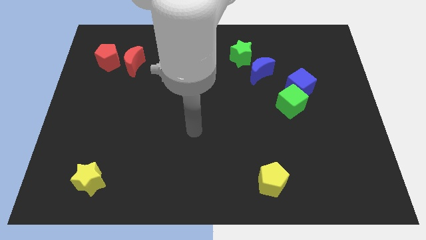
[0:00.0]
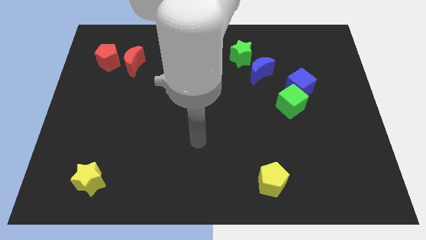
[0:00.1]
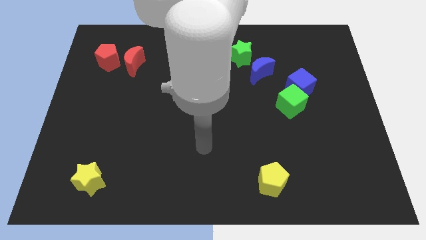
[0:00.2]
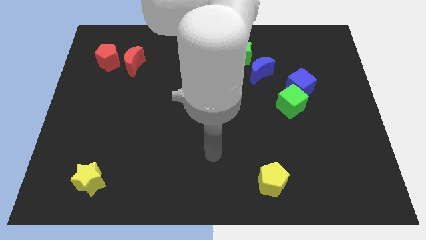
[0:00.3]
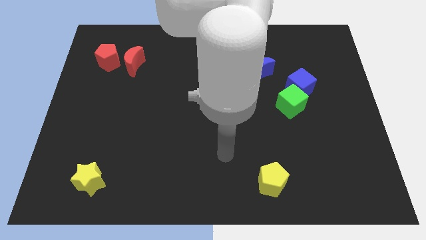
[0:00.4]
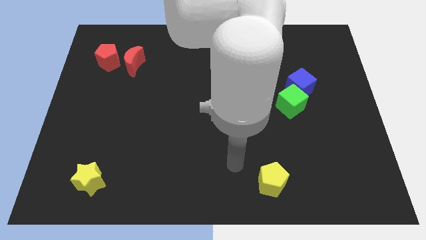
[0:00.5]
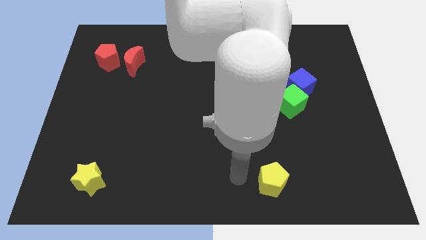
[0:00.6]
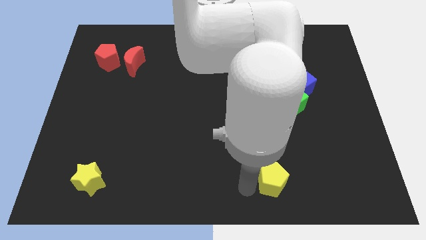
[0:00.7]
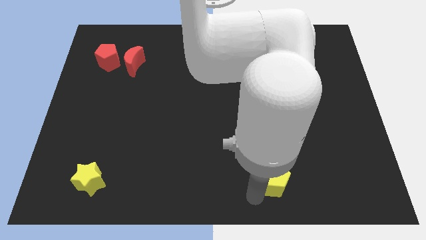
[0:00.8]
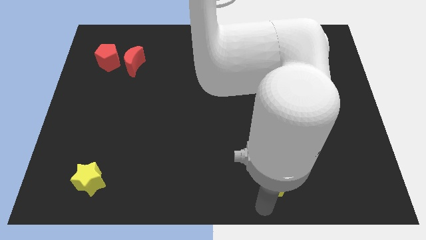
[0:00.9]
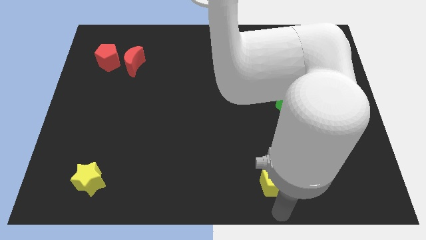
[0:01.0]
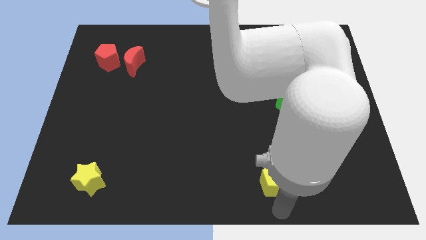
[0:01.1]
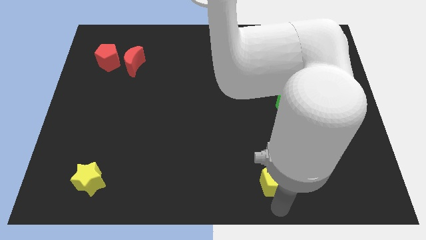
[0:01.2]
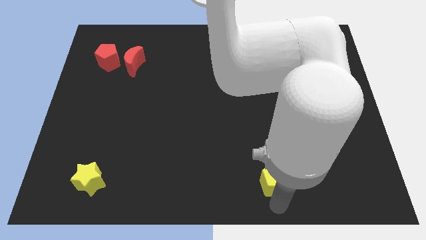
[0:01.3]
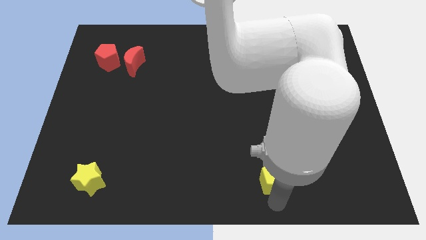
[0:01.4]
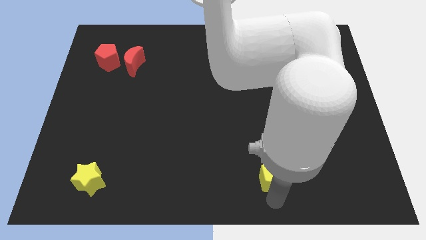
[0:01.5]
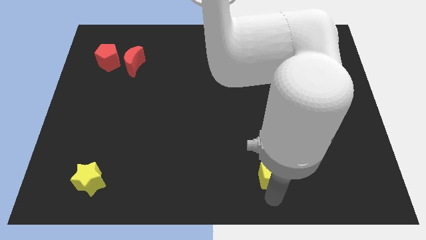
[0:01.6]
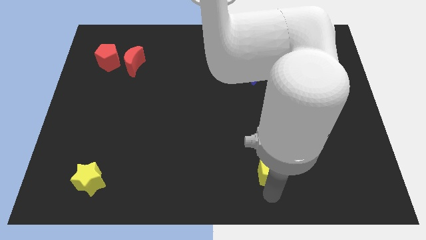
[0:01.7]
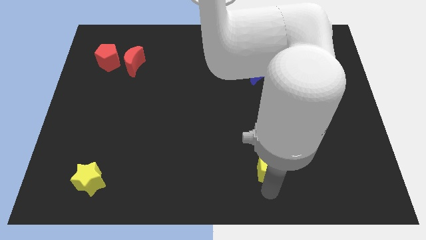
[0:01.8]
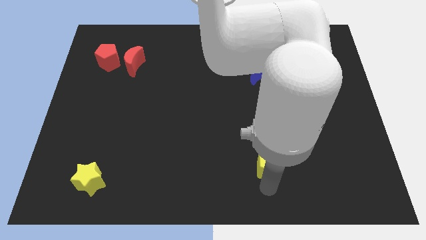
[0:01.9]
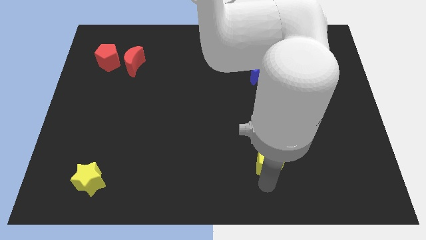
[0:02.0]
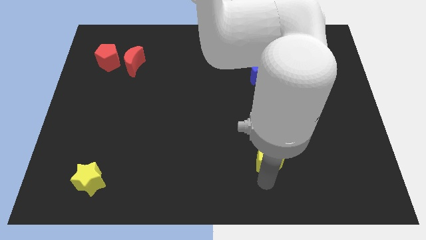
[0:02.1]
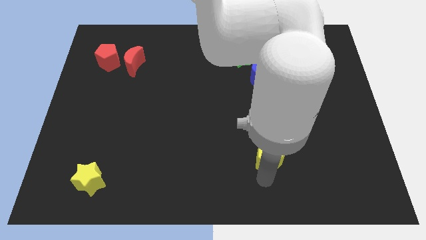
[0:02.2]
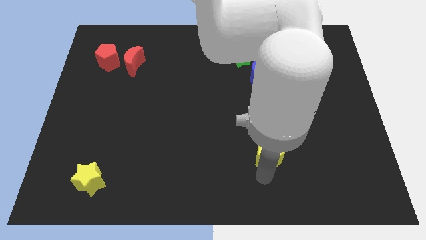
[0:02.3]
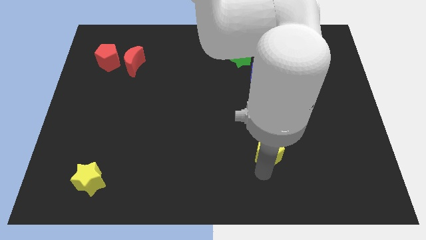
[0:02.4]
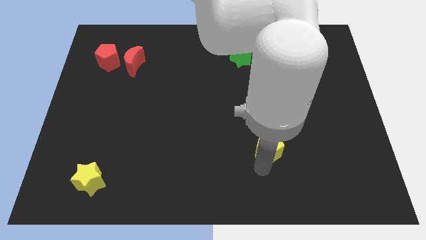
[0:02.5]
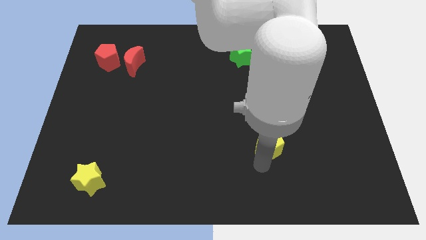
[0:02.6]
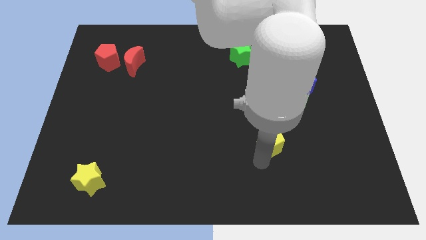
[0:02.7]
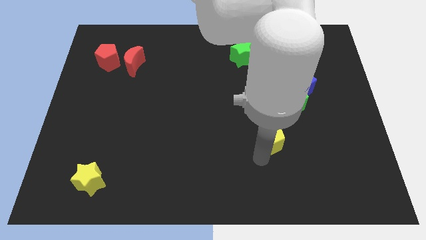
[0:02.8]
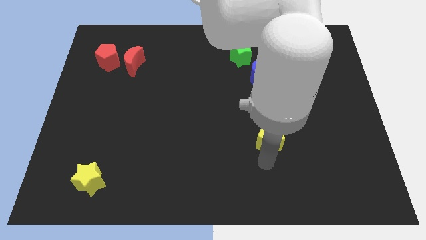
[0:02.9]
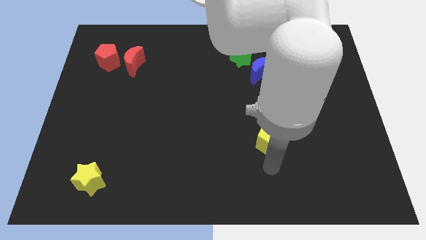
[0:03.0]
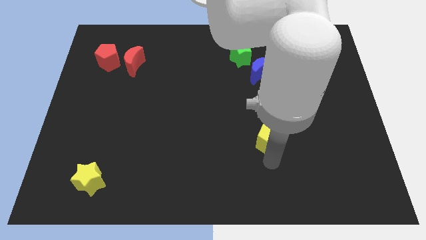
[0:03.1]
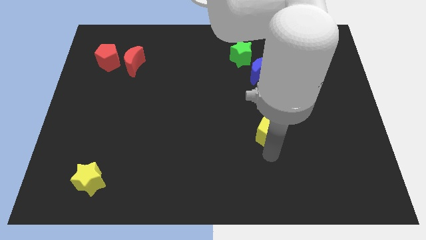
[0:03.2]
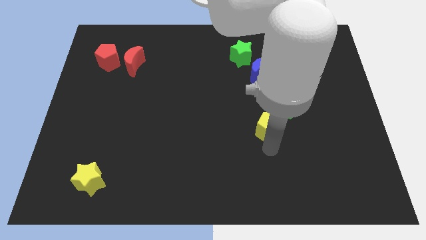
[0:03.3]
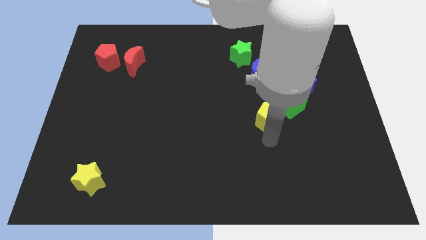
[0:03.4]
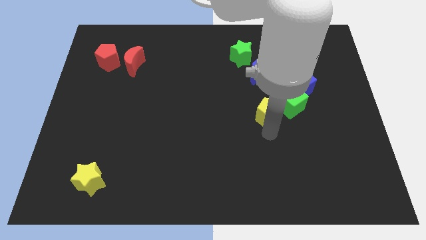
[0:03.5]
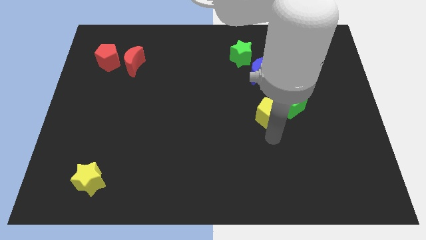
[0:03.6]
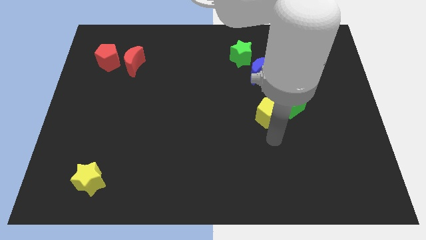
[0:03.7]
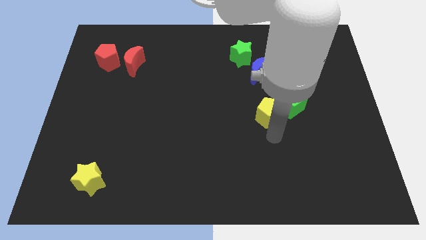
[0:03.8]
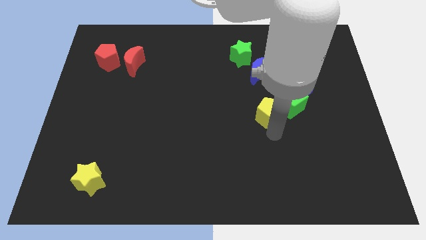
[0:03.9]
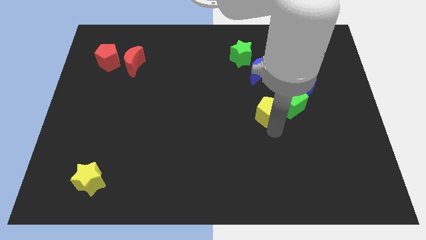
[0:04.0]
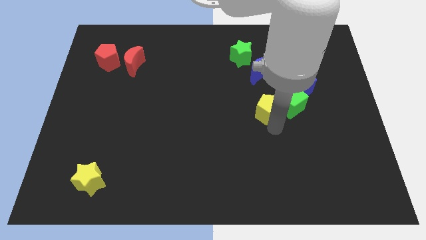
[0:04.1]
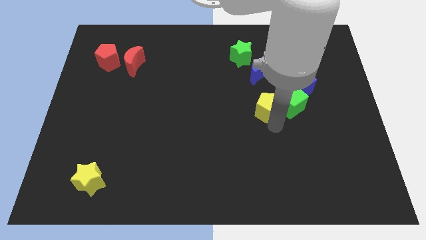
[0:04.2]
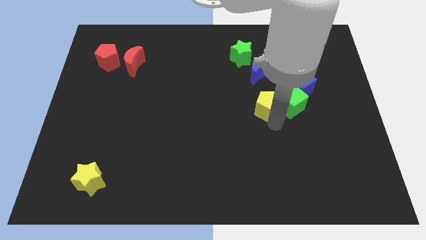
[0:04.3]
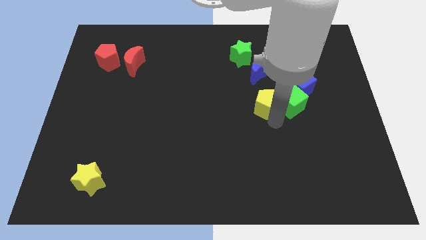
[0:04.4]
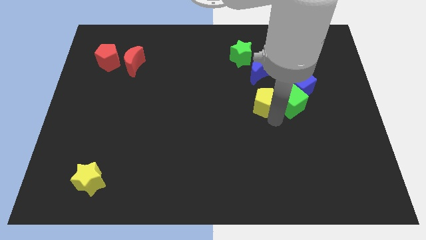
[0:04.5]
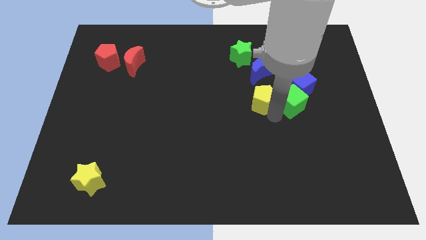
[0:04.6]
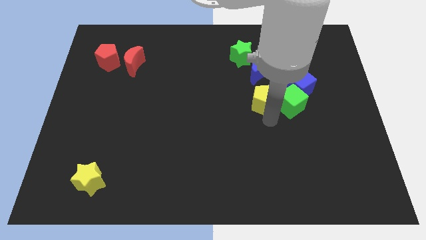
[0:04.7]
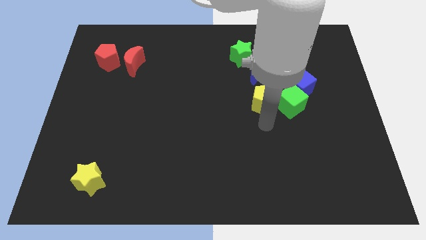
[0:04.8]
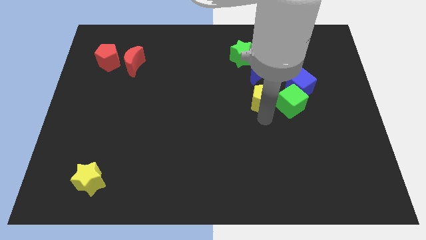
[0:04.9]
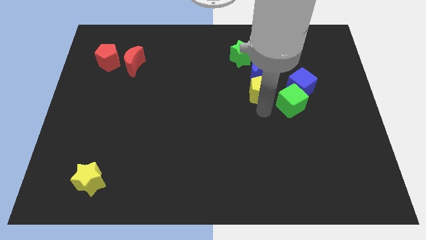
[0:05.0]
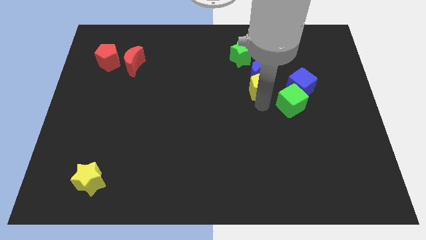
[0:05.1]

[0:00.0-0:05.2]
put the yellow pentagon towards the blue moon

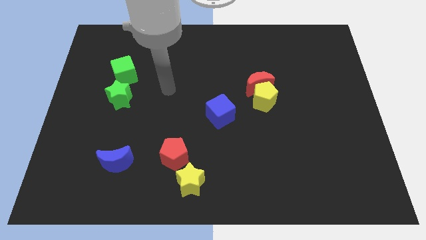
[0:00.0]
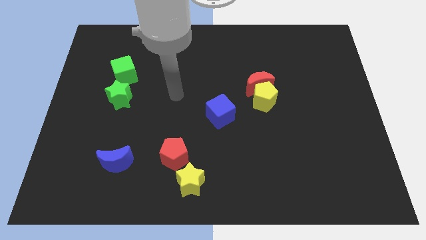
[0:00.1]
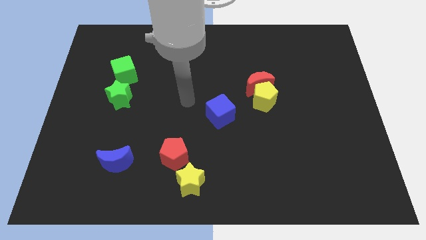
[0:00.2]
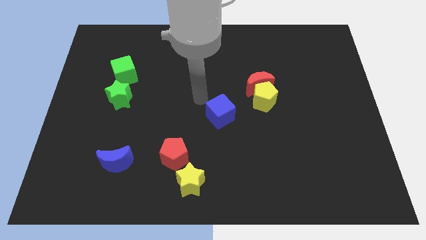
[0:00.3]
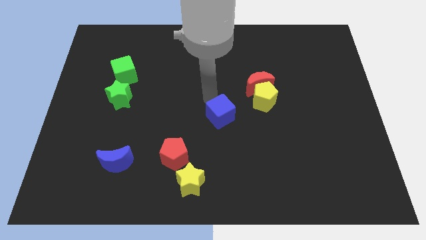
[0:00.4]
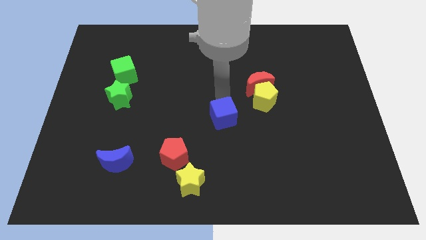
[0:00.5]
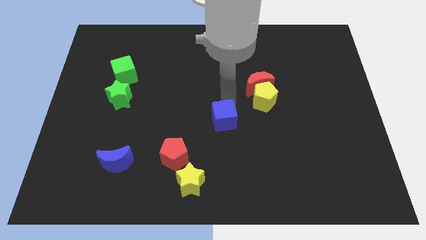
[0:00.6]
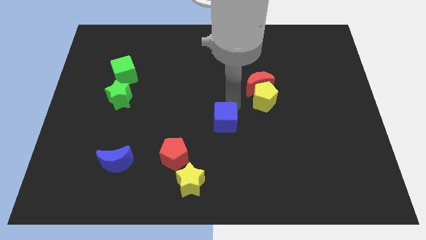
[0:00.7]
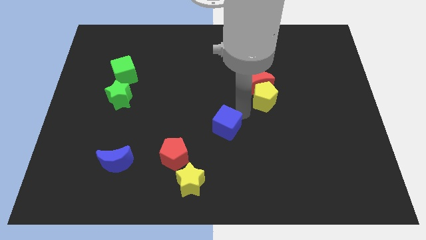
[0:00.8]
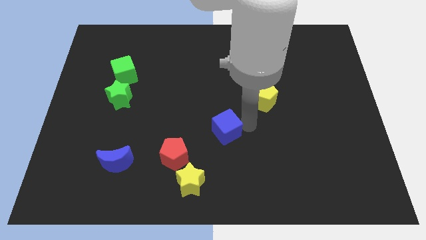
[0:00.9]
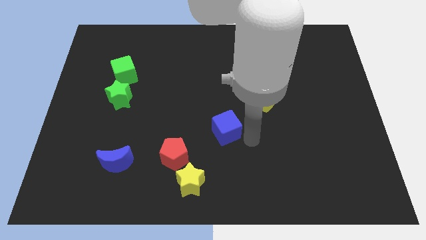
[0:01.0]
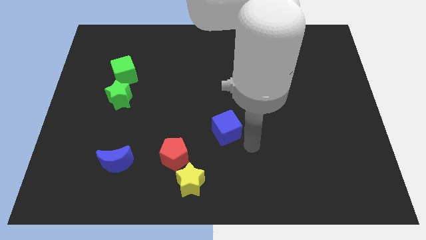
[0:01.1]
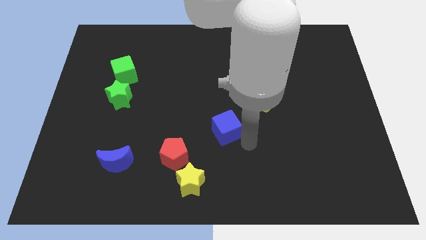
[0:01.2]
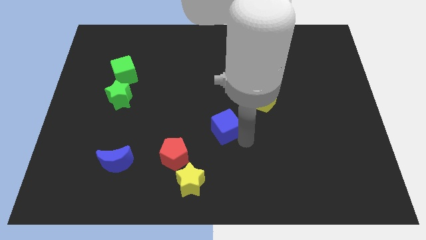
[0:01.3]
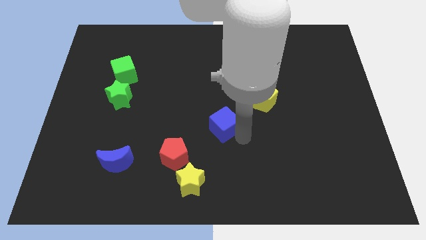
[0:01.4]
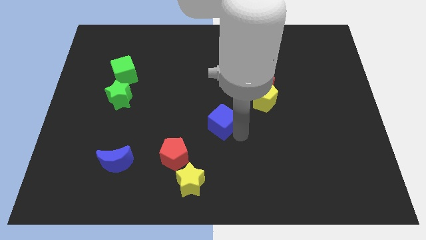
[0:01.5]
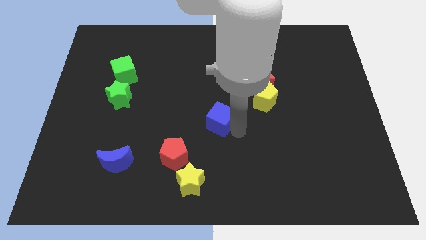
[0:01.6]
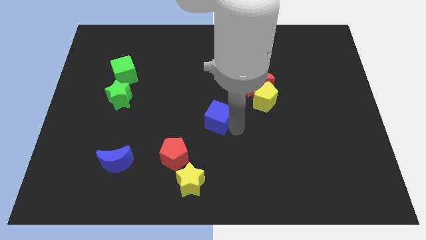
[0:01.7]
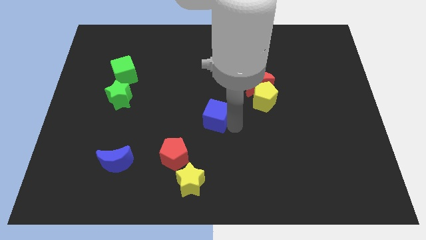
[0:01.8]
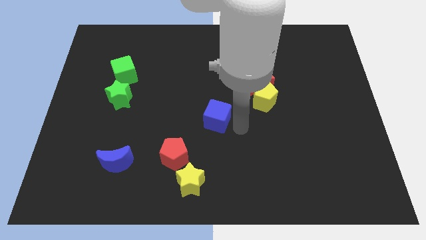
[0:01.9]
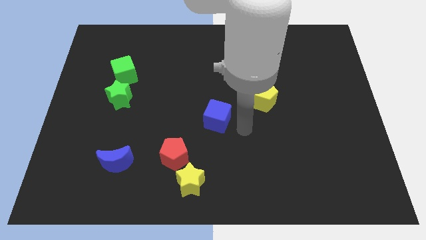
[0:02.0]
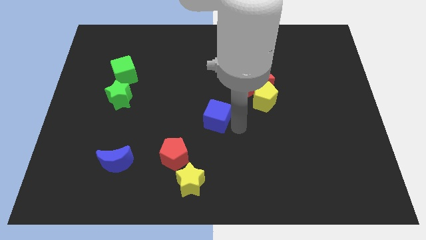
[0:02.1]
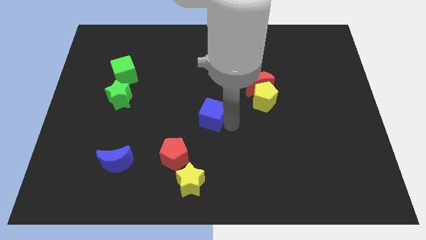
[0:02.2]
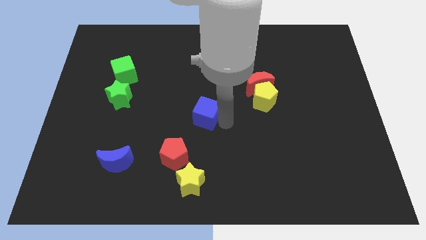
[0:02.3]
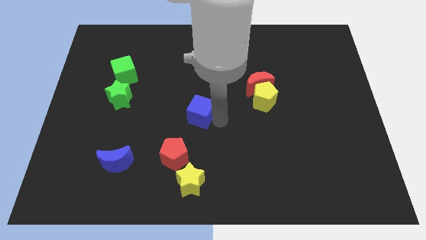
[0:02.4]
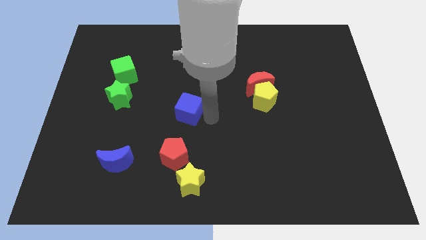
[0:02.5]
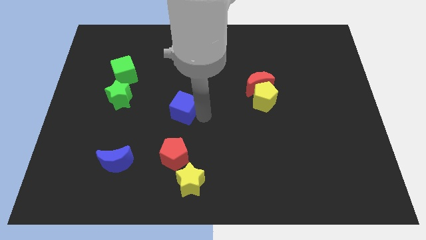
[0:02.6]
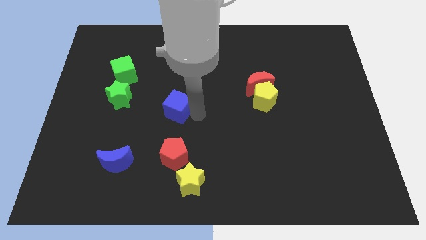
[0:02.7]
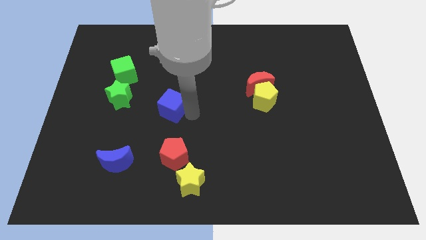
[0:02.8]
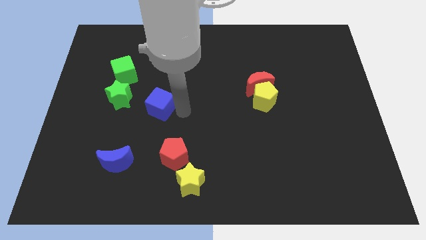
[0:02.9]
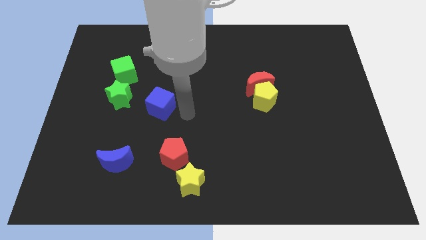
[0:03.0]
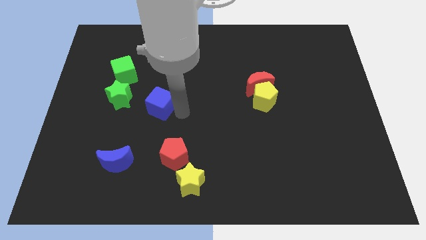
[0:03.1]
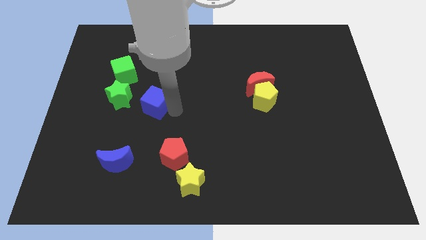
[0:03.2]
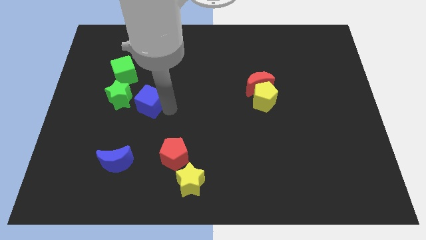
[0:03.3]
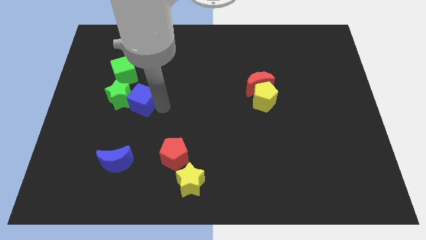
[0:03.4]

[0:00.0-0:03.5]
move the blue cube towards the green star
